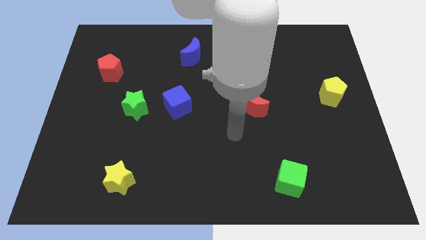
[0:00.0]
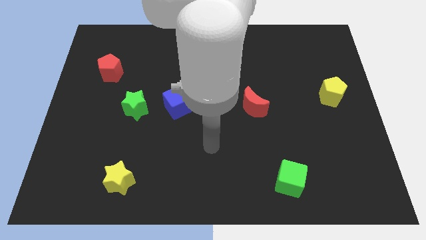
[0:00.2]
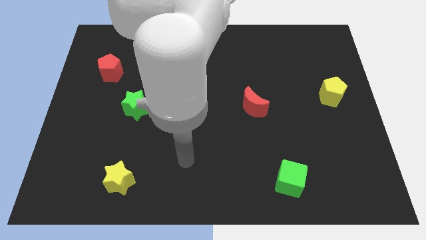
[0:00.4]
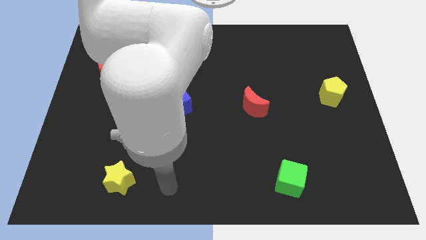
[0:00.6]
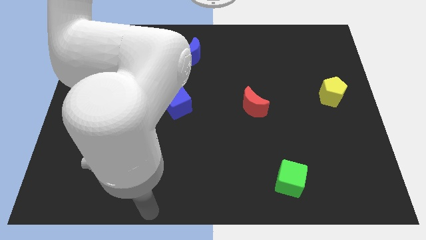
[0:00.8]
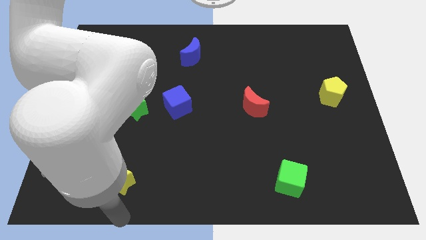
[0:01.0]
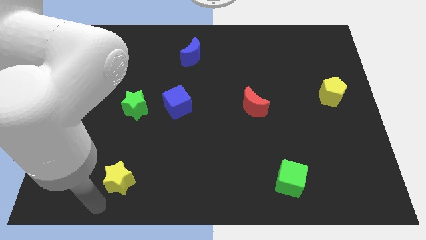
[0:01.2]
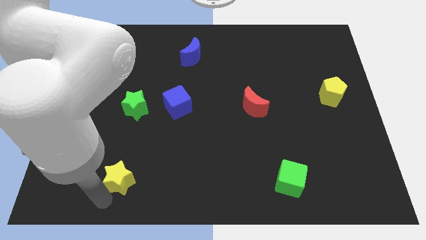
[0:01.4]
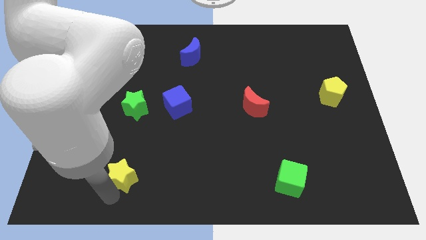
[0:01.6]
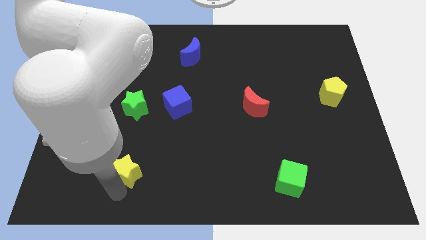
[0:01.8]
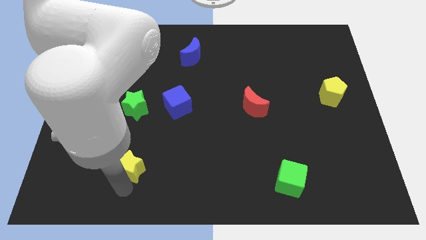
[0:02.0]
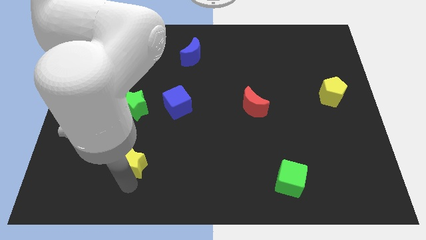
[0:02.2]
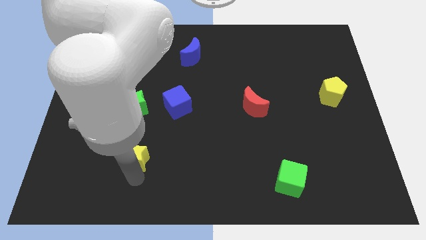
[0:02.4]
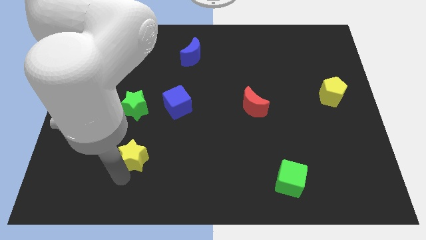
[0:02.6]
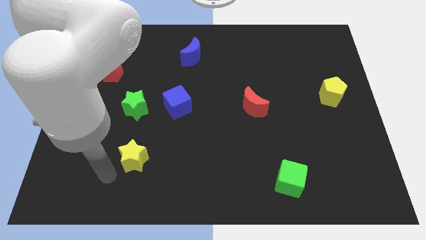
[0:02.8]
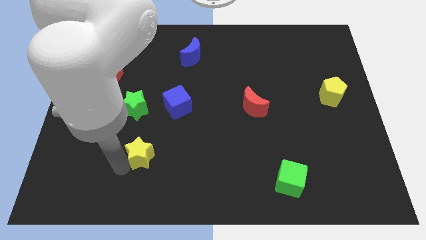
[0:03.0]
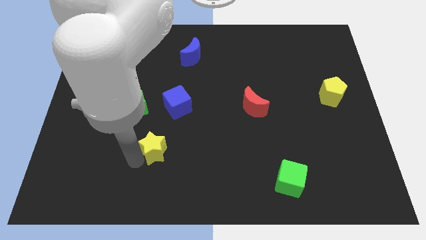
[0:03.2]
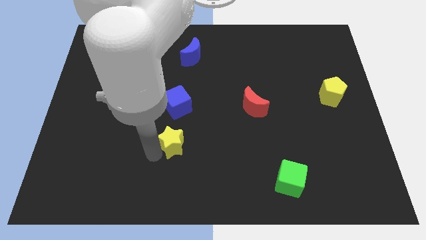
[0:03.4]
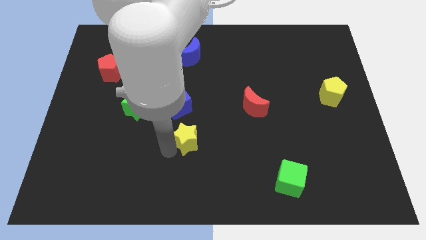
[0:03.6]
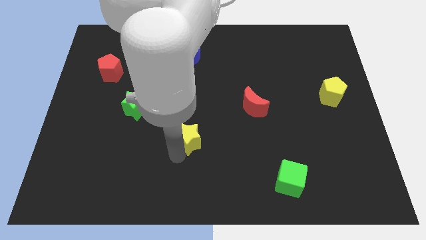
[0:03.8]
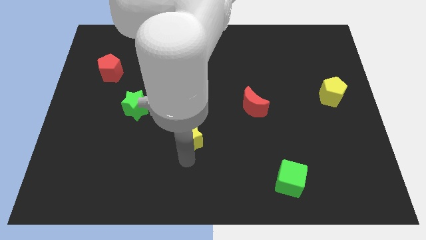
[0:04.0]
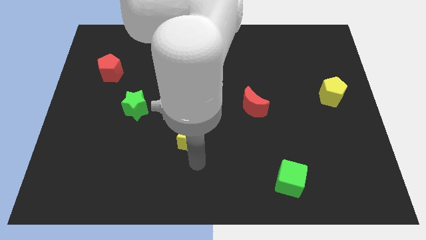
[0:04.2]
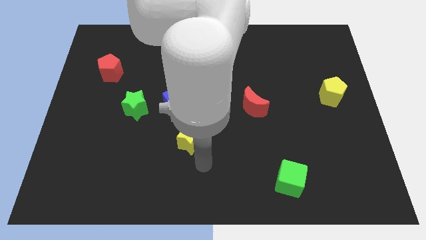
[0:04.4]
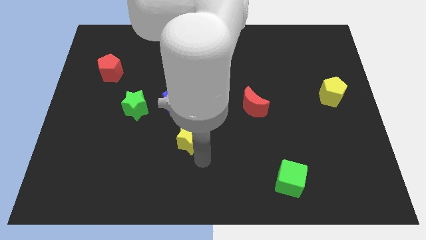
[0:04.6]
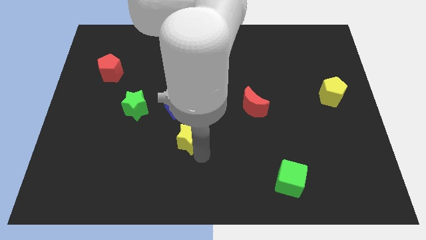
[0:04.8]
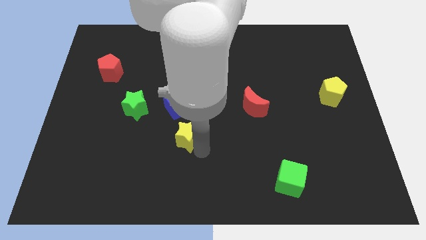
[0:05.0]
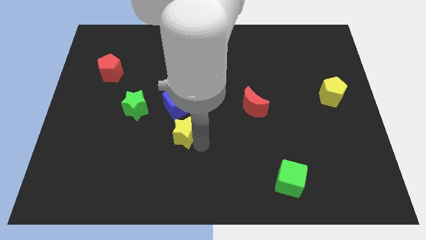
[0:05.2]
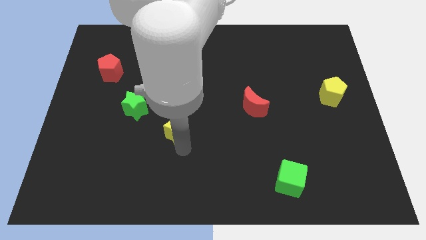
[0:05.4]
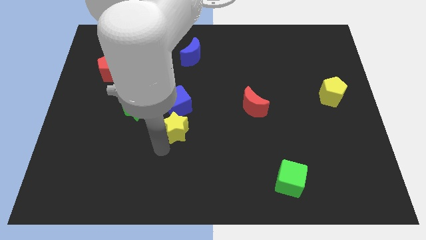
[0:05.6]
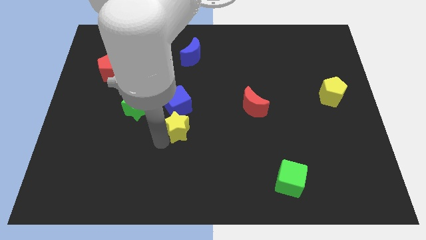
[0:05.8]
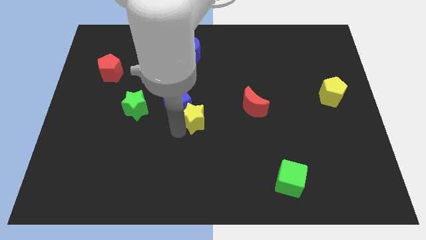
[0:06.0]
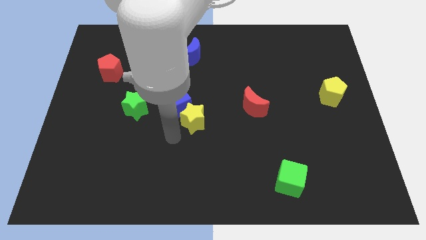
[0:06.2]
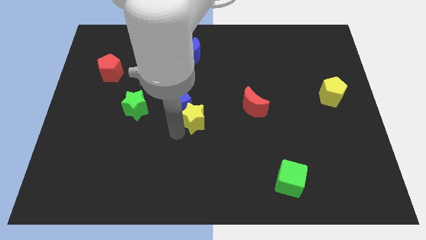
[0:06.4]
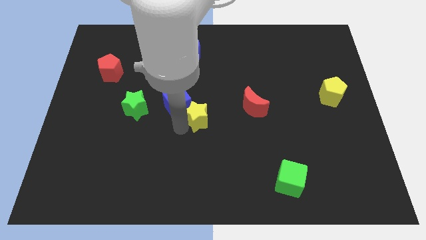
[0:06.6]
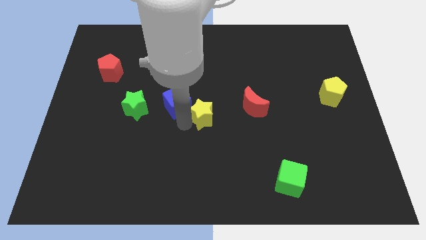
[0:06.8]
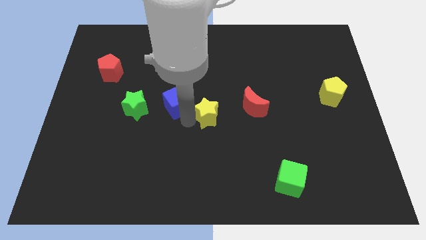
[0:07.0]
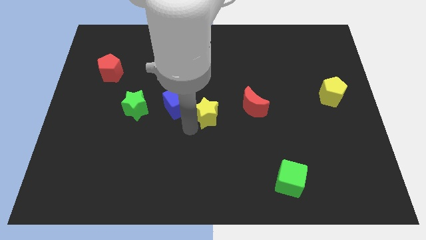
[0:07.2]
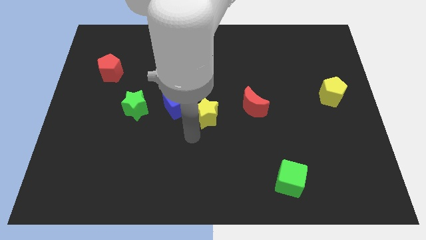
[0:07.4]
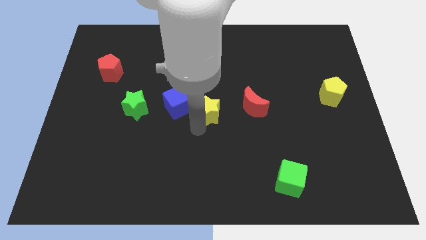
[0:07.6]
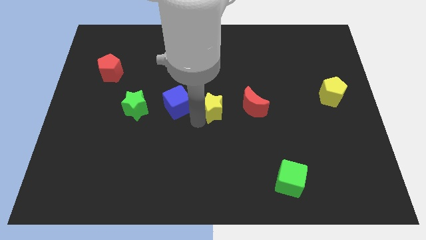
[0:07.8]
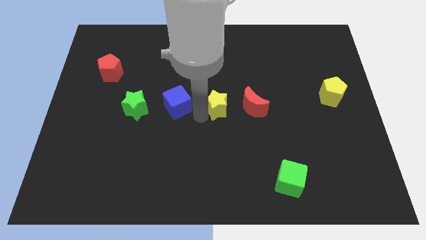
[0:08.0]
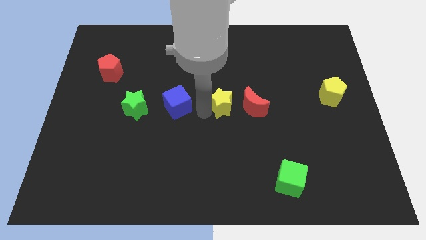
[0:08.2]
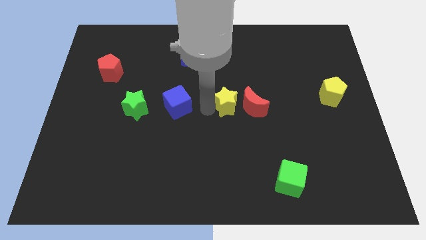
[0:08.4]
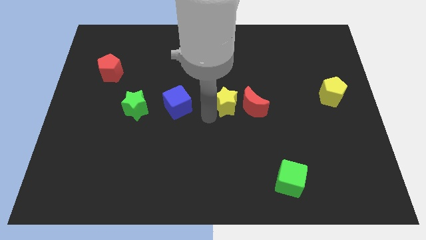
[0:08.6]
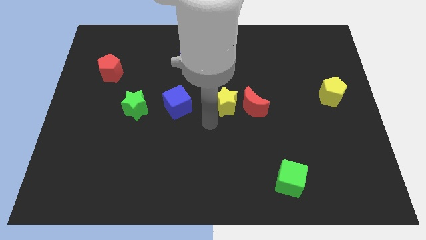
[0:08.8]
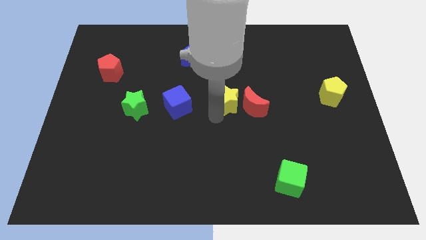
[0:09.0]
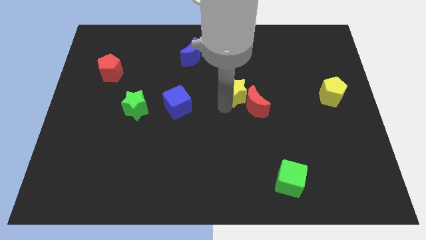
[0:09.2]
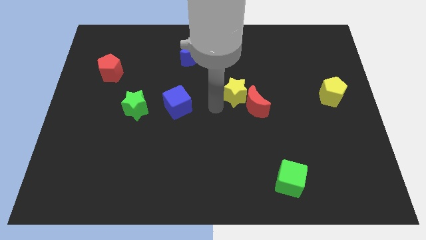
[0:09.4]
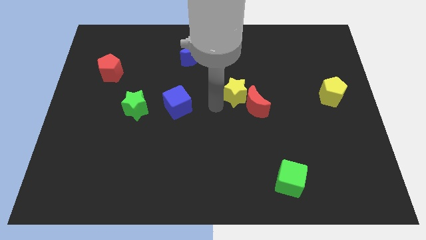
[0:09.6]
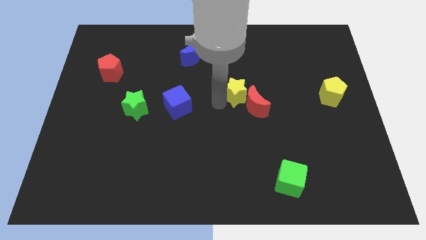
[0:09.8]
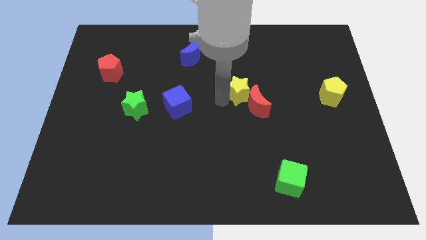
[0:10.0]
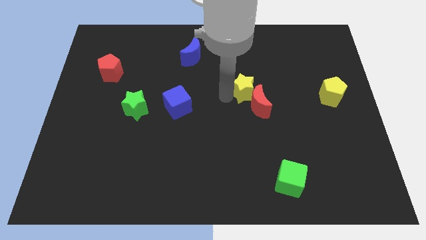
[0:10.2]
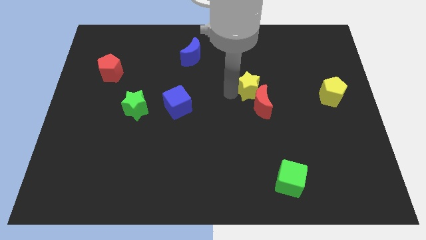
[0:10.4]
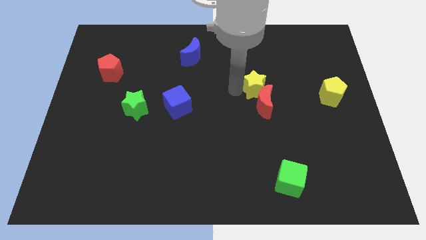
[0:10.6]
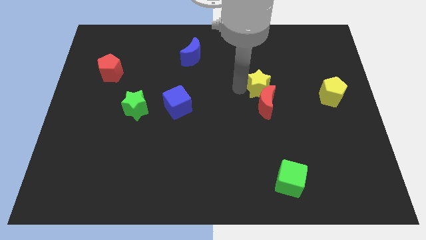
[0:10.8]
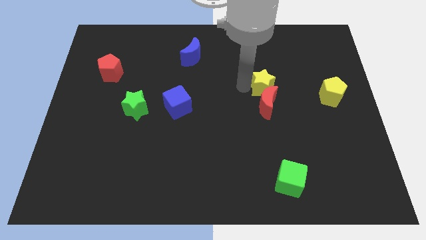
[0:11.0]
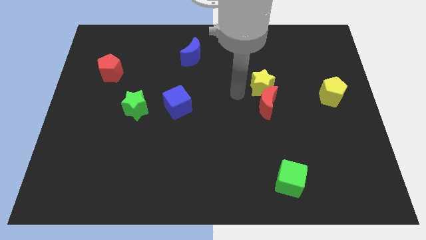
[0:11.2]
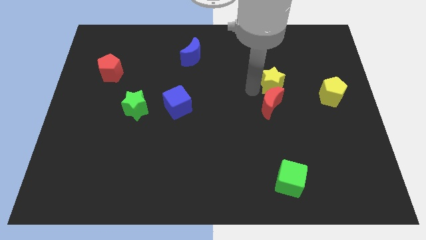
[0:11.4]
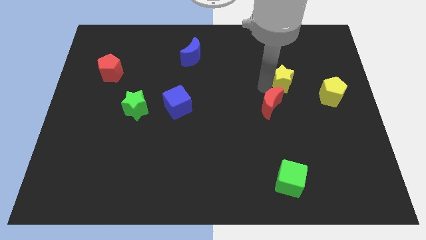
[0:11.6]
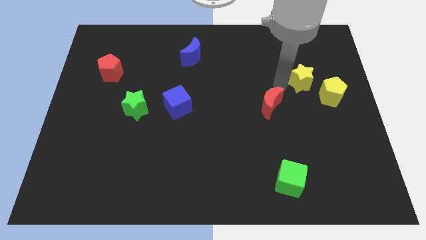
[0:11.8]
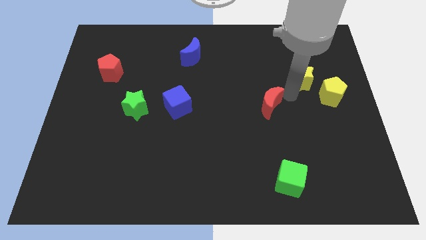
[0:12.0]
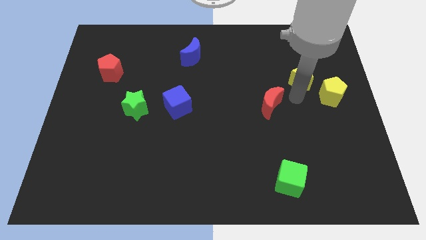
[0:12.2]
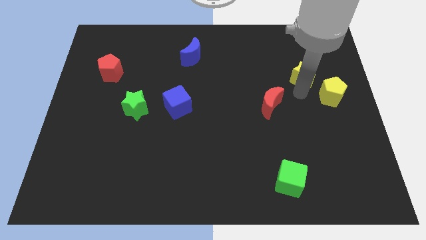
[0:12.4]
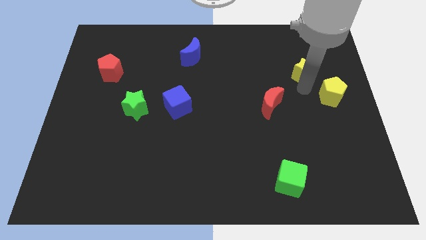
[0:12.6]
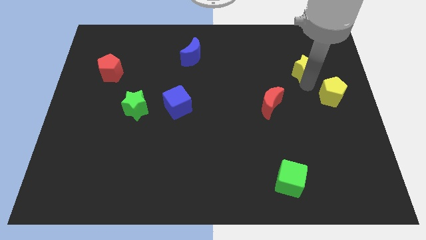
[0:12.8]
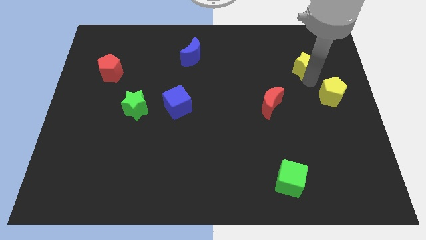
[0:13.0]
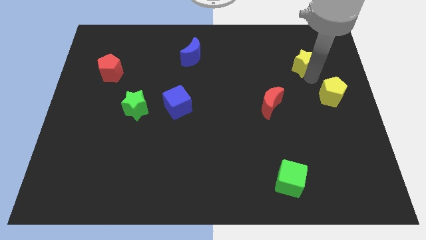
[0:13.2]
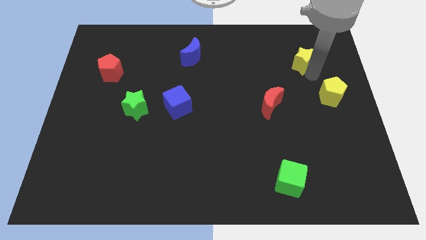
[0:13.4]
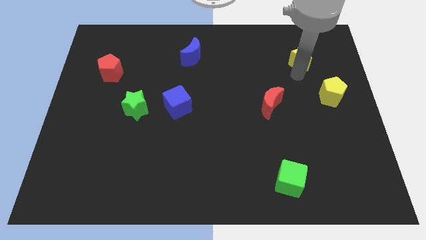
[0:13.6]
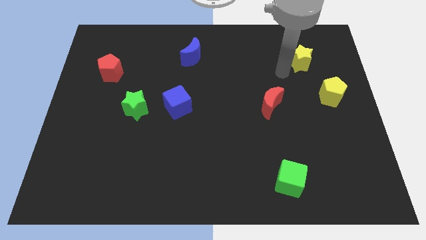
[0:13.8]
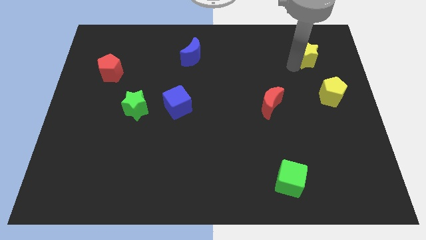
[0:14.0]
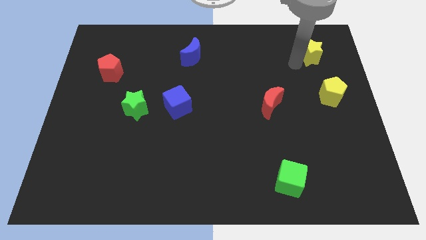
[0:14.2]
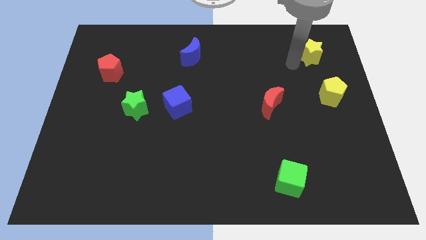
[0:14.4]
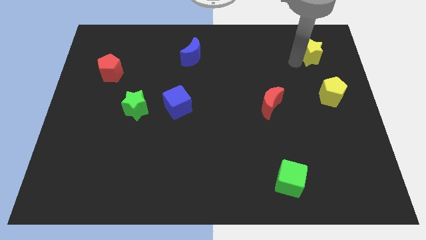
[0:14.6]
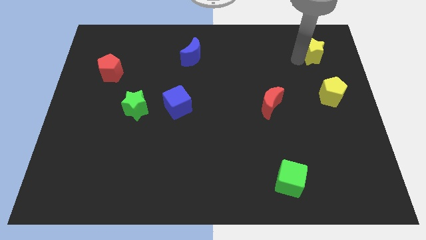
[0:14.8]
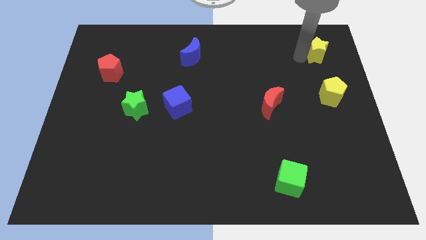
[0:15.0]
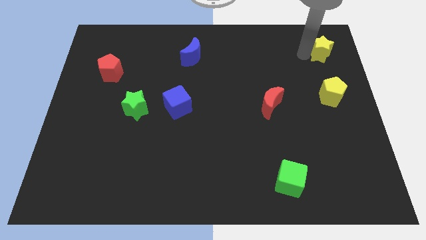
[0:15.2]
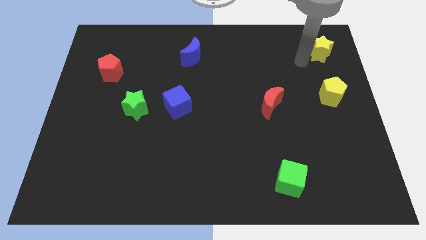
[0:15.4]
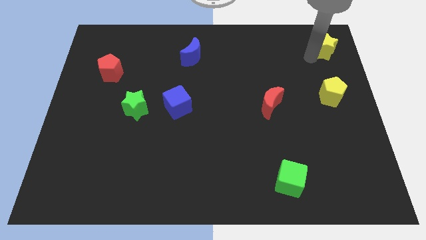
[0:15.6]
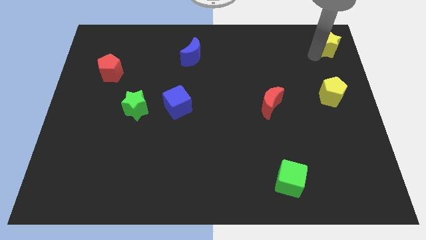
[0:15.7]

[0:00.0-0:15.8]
slide the yellow star to the top right corner
